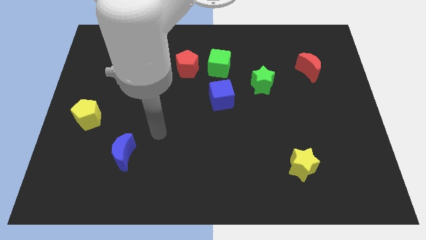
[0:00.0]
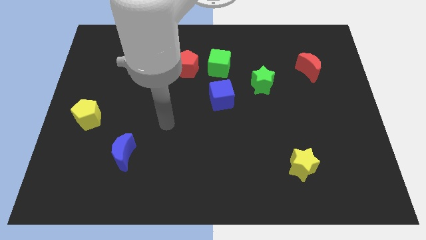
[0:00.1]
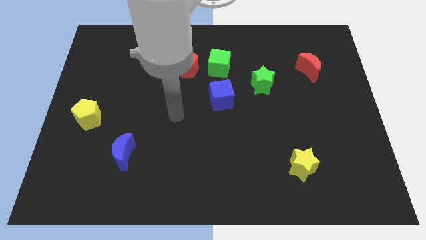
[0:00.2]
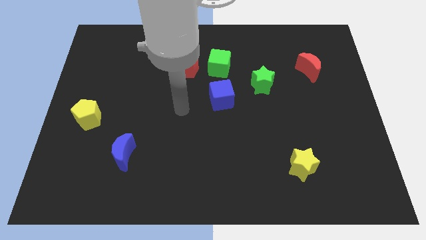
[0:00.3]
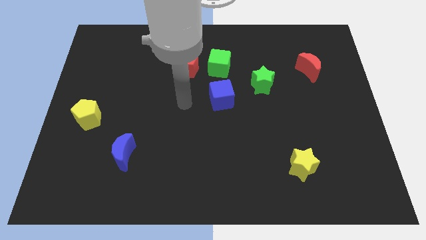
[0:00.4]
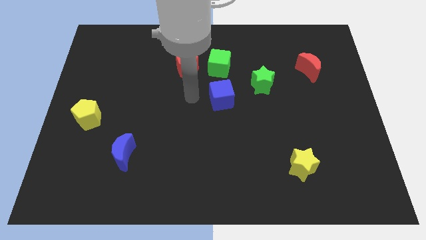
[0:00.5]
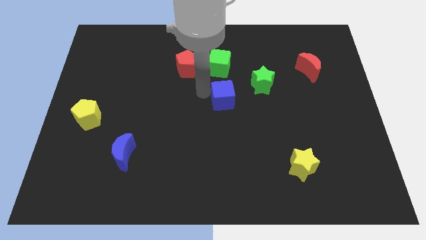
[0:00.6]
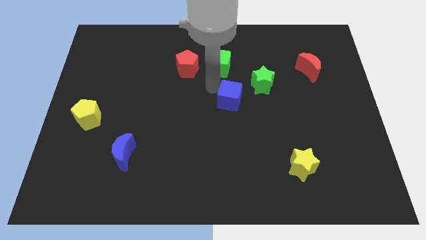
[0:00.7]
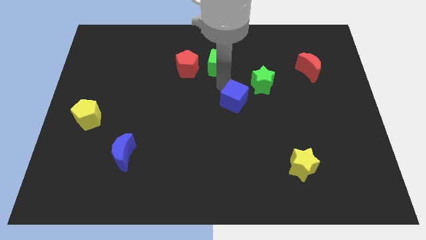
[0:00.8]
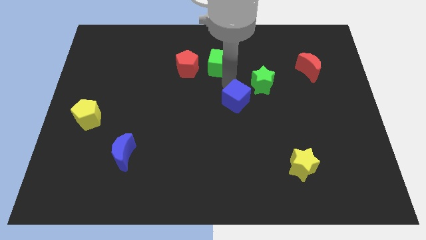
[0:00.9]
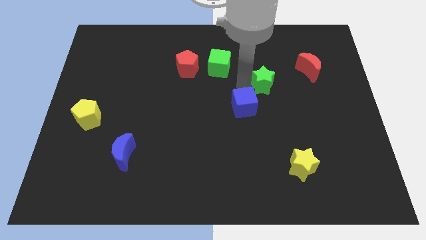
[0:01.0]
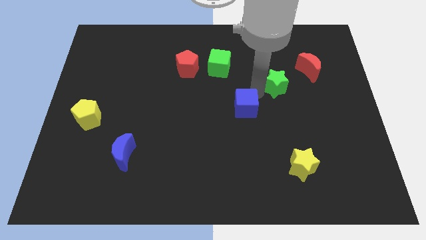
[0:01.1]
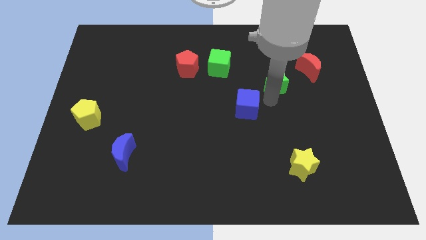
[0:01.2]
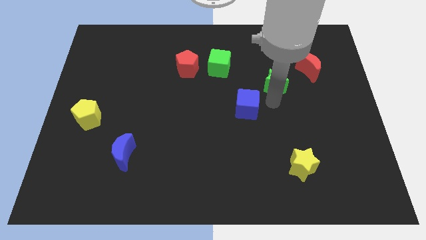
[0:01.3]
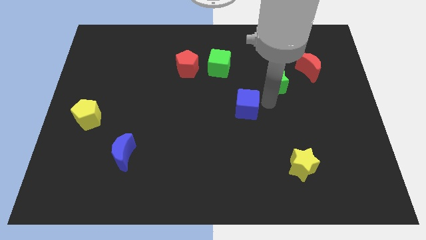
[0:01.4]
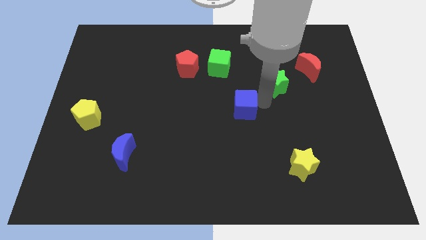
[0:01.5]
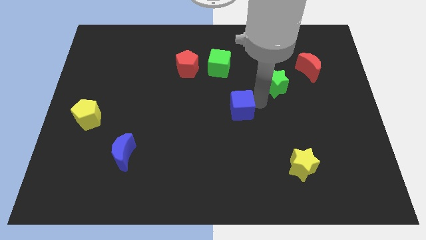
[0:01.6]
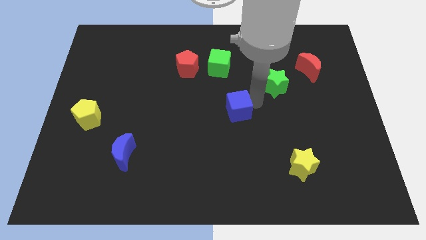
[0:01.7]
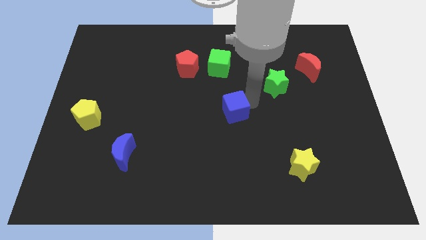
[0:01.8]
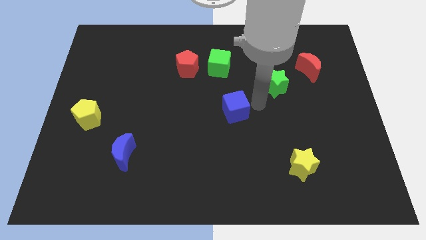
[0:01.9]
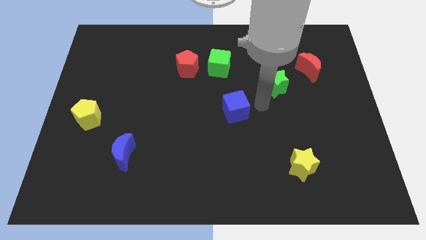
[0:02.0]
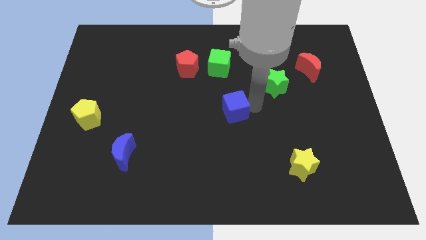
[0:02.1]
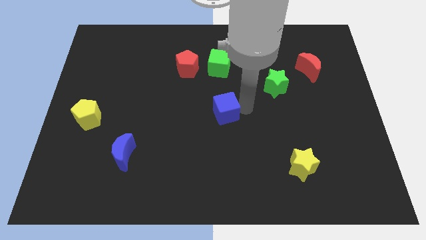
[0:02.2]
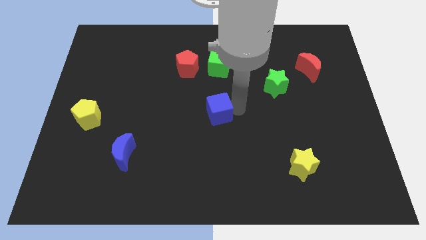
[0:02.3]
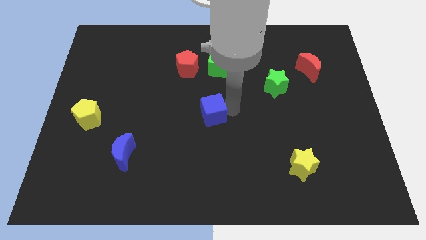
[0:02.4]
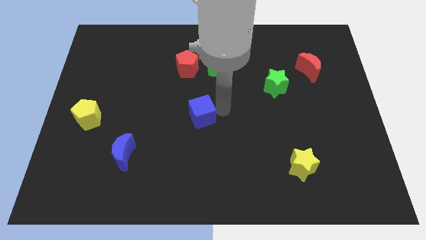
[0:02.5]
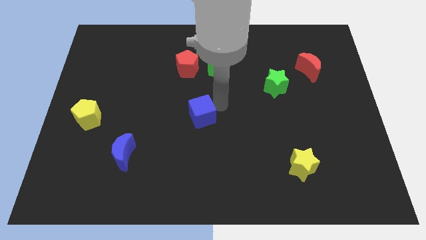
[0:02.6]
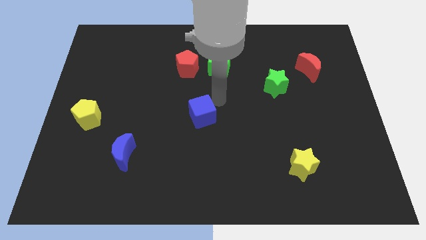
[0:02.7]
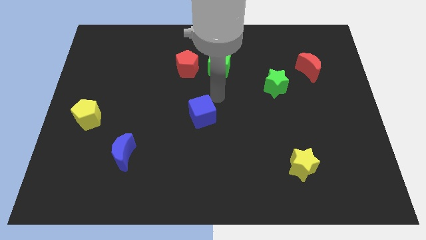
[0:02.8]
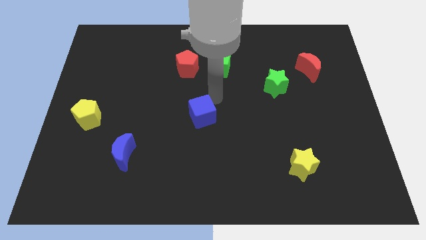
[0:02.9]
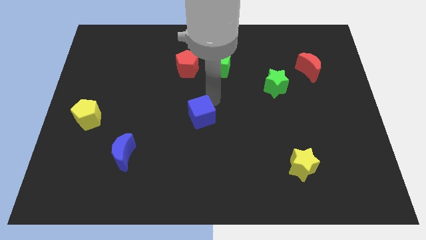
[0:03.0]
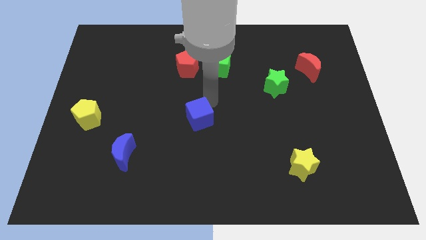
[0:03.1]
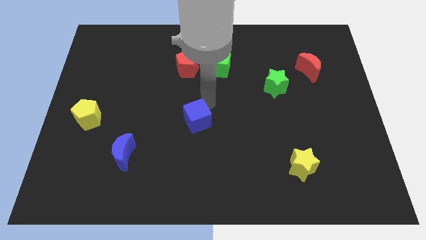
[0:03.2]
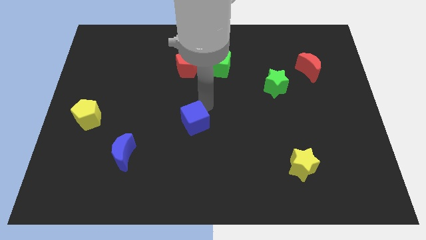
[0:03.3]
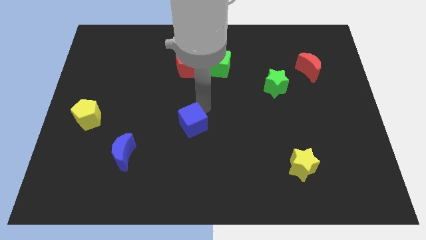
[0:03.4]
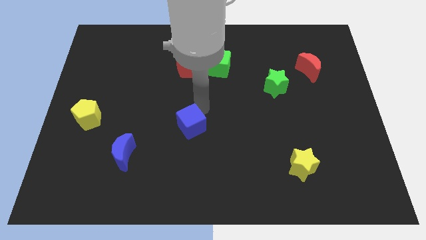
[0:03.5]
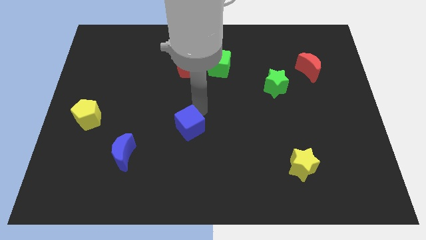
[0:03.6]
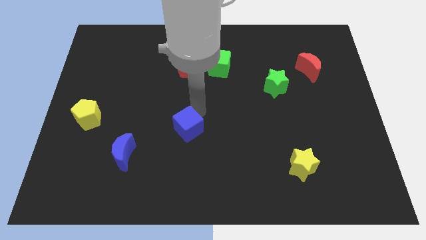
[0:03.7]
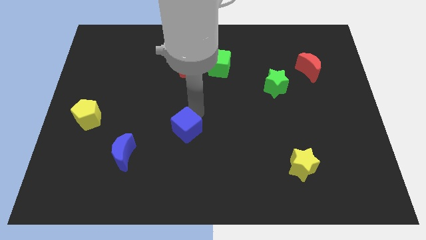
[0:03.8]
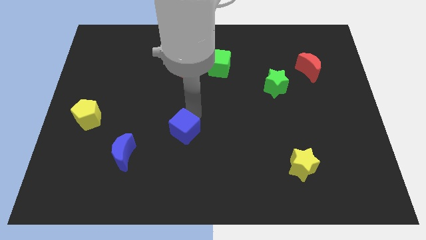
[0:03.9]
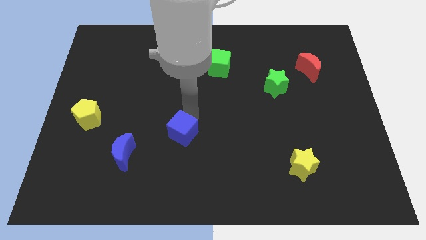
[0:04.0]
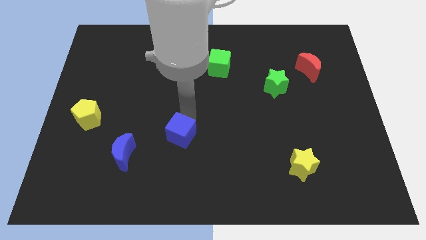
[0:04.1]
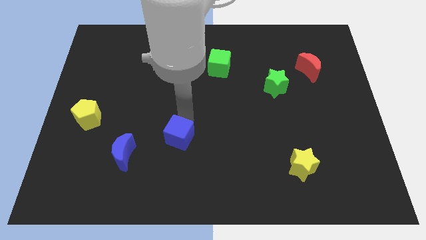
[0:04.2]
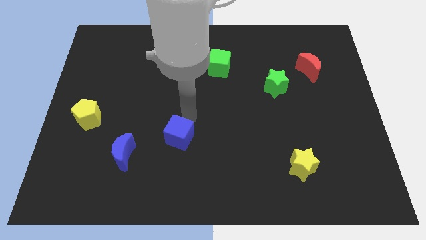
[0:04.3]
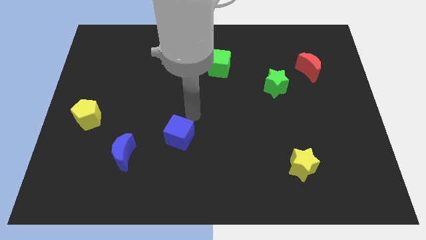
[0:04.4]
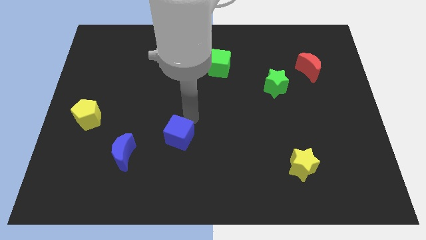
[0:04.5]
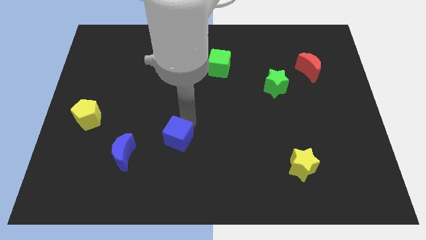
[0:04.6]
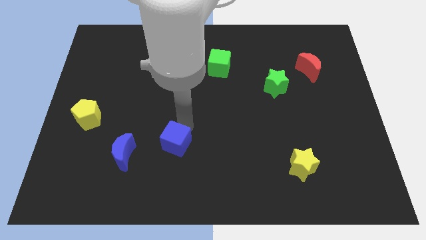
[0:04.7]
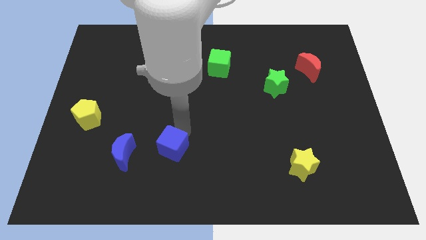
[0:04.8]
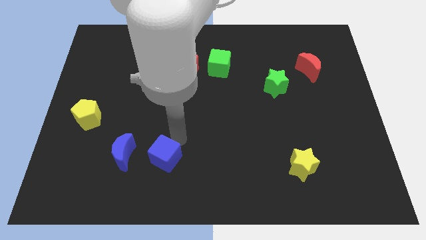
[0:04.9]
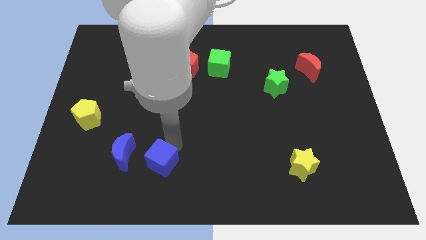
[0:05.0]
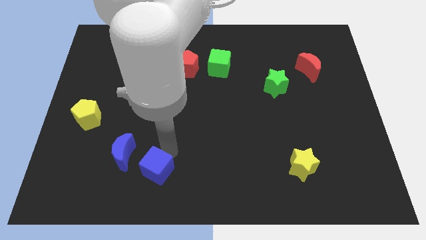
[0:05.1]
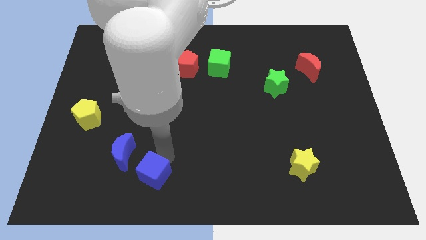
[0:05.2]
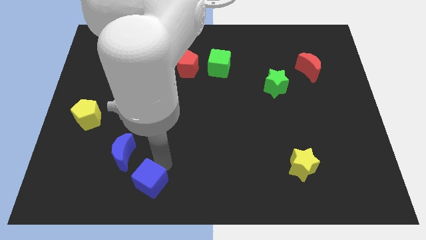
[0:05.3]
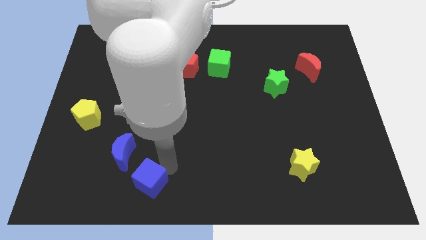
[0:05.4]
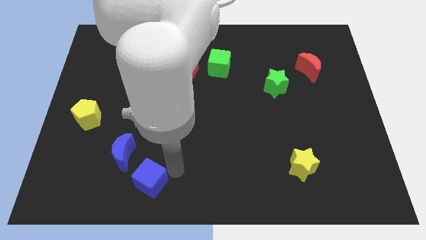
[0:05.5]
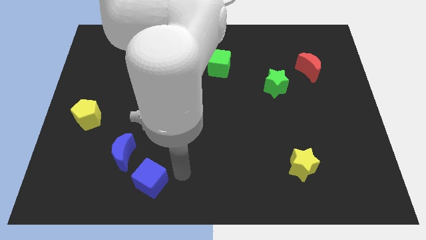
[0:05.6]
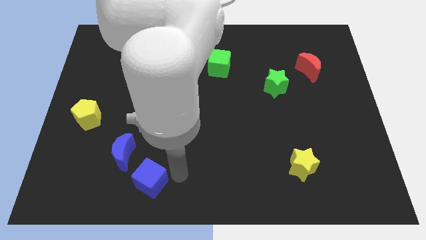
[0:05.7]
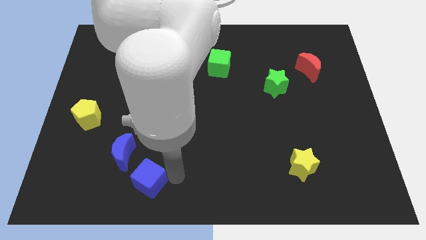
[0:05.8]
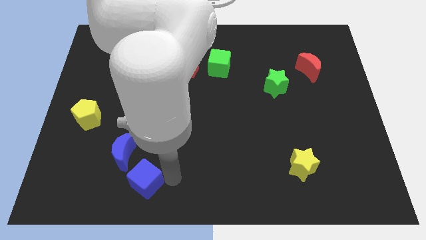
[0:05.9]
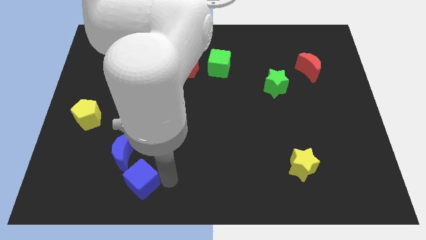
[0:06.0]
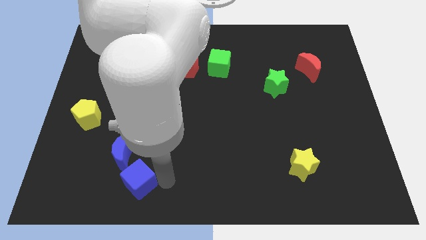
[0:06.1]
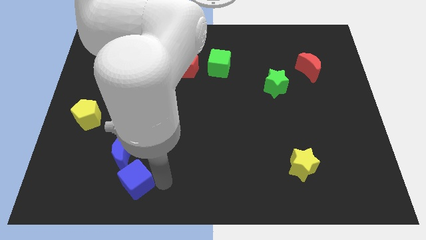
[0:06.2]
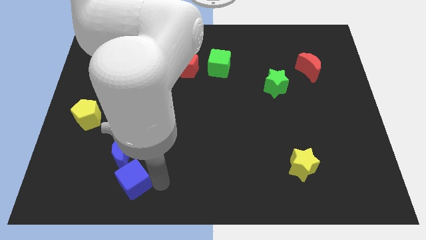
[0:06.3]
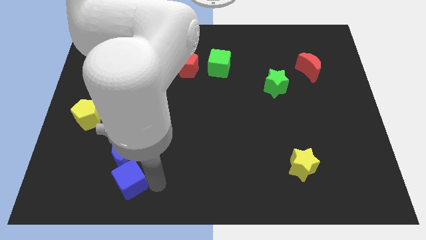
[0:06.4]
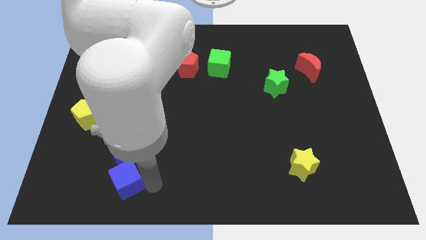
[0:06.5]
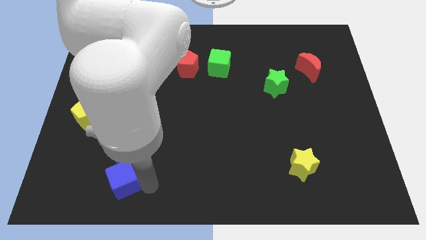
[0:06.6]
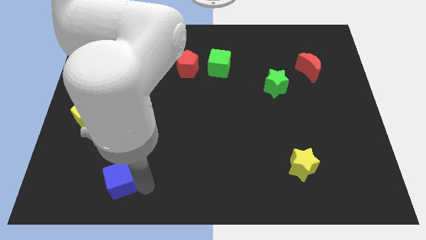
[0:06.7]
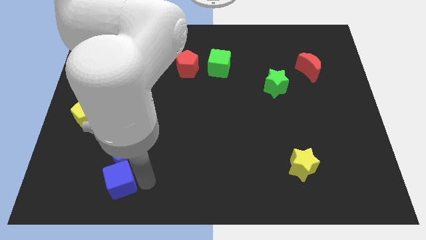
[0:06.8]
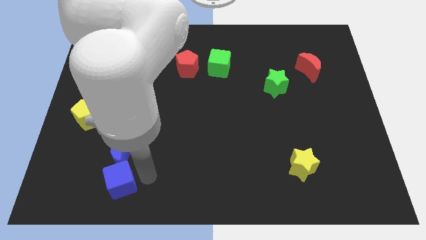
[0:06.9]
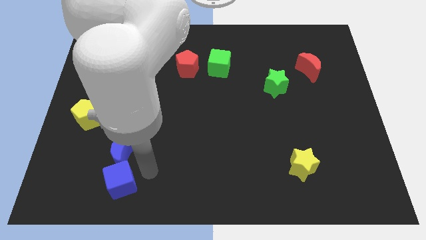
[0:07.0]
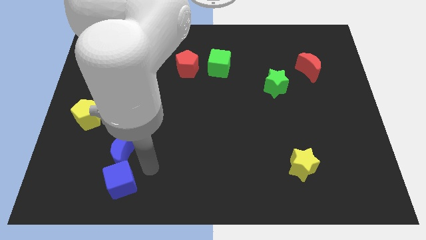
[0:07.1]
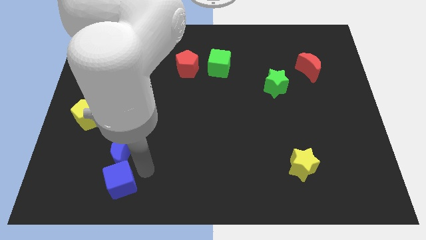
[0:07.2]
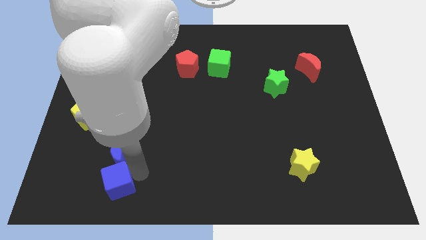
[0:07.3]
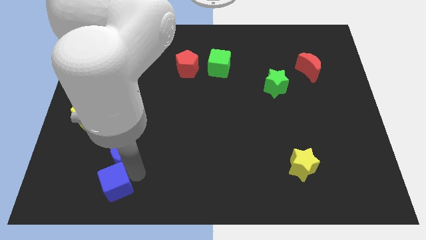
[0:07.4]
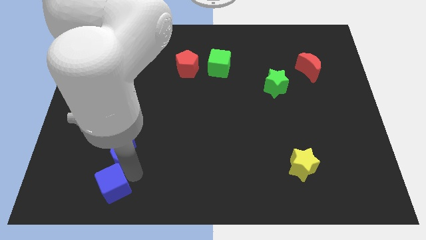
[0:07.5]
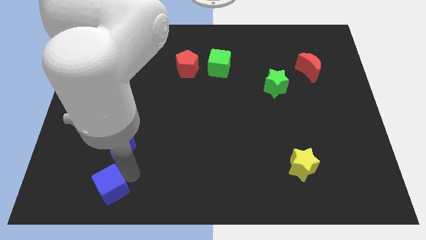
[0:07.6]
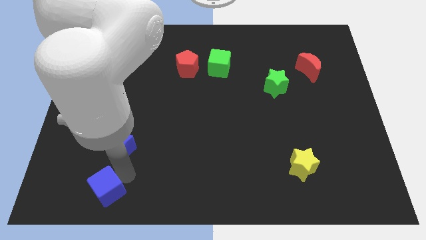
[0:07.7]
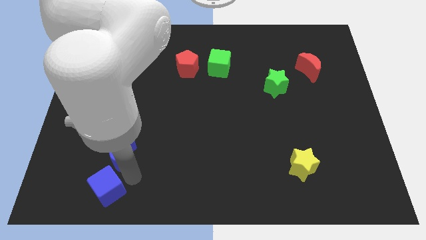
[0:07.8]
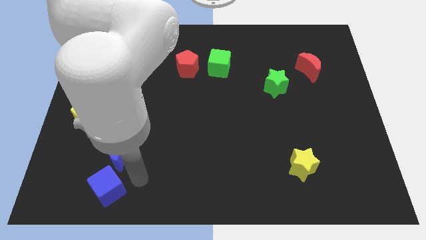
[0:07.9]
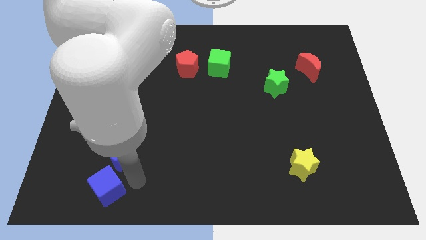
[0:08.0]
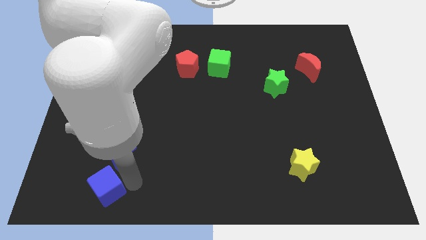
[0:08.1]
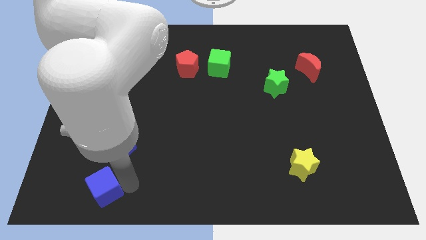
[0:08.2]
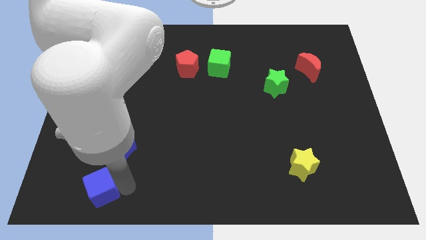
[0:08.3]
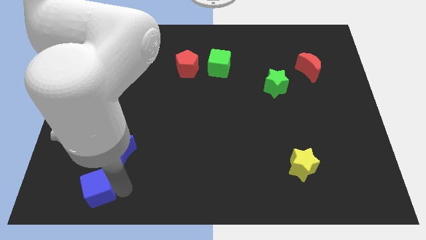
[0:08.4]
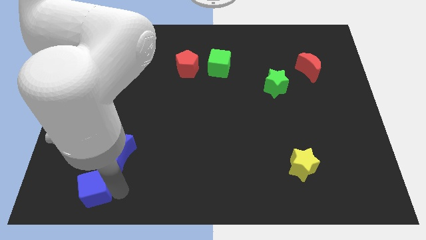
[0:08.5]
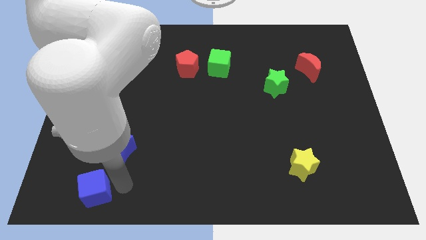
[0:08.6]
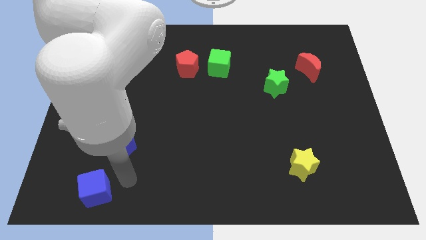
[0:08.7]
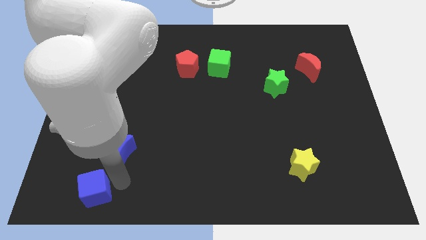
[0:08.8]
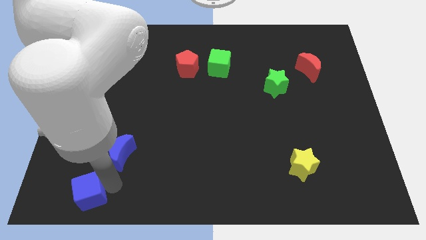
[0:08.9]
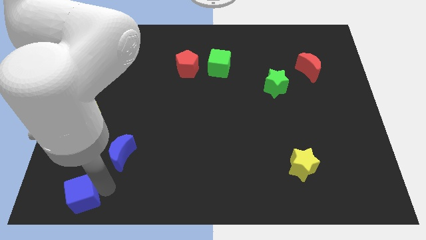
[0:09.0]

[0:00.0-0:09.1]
move the blue cube to the bottom left corner
